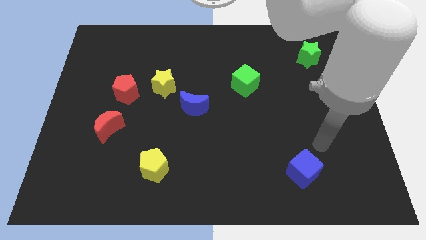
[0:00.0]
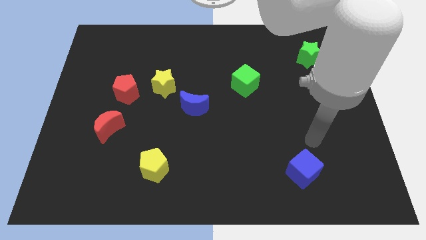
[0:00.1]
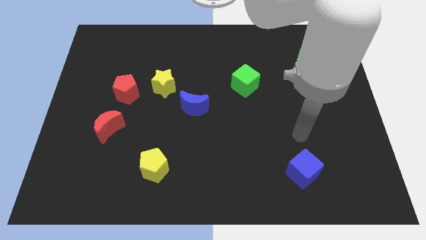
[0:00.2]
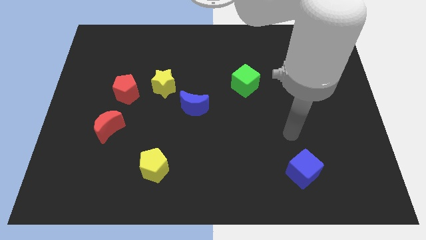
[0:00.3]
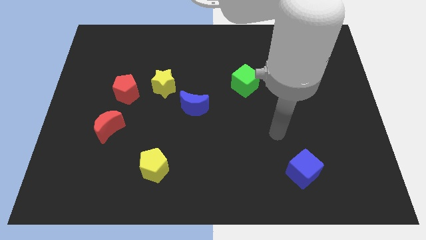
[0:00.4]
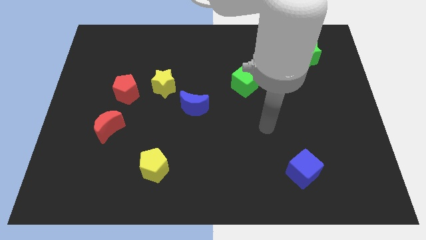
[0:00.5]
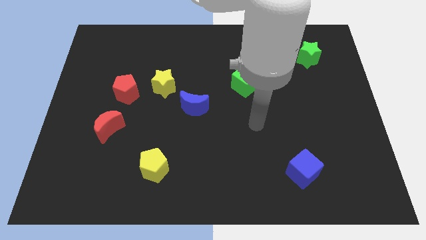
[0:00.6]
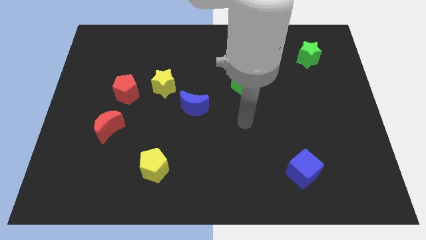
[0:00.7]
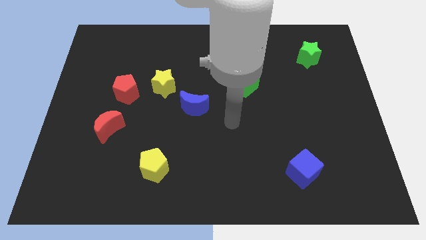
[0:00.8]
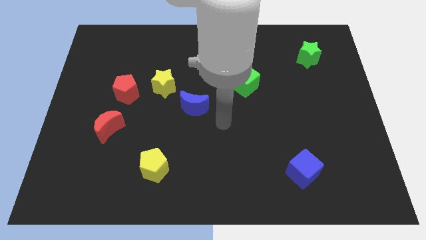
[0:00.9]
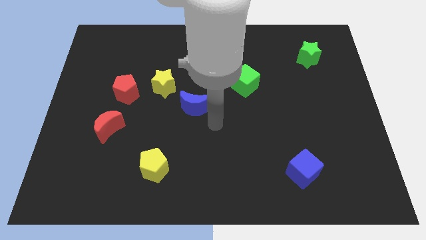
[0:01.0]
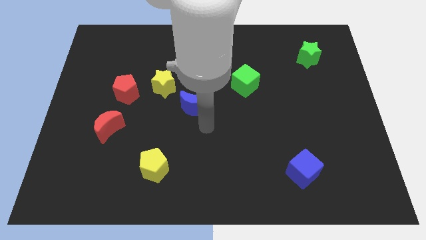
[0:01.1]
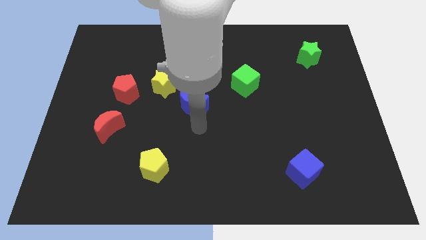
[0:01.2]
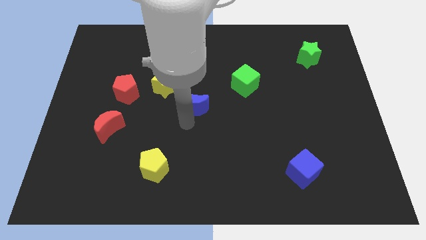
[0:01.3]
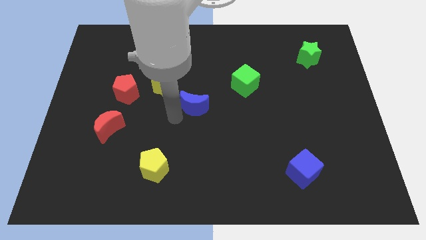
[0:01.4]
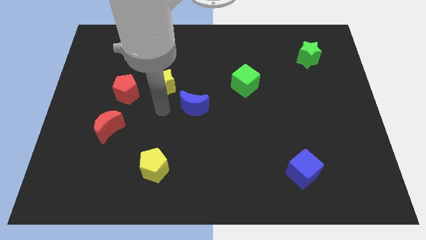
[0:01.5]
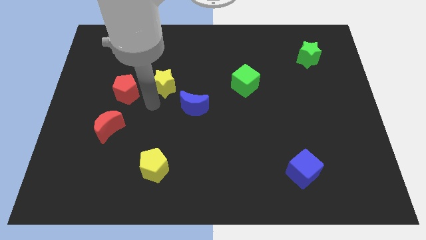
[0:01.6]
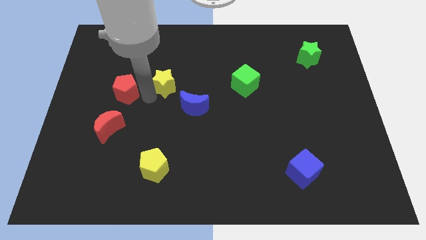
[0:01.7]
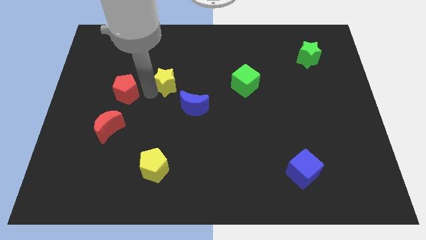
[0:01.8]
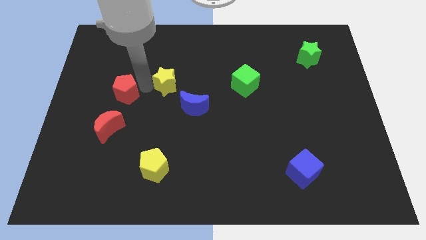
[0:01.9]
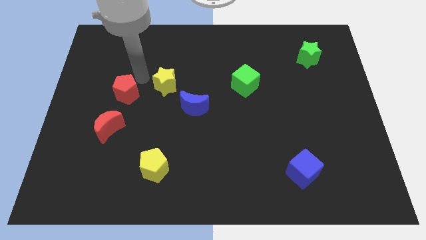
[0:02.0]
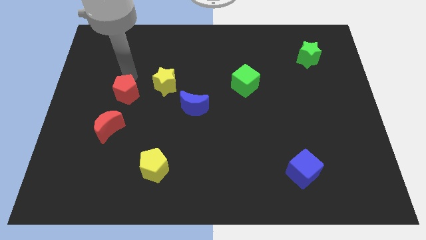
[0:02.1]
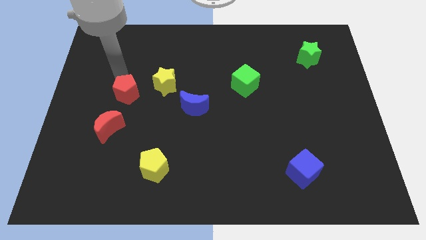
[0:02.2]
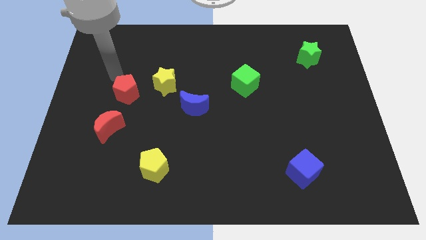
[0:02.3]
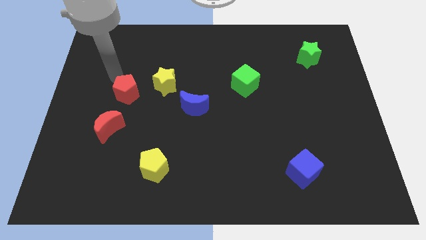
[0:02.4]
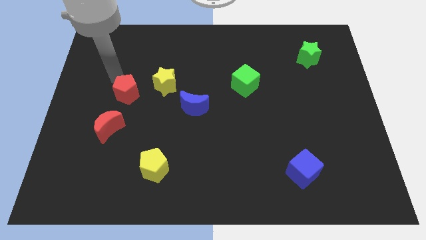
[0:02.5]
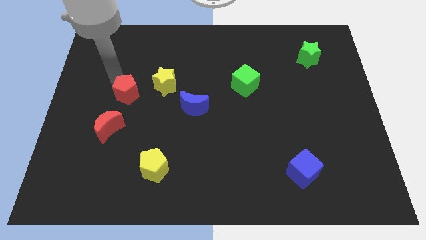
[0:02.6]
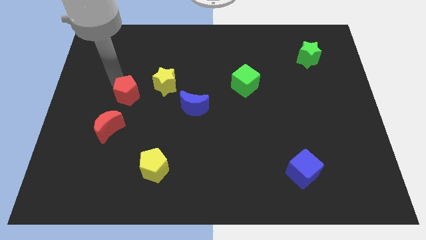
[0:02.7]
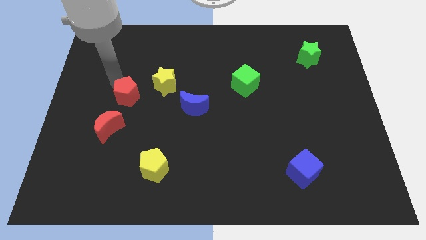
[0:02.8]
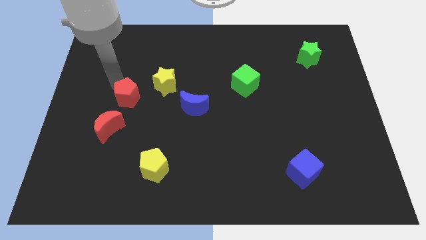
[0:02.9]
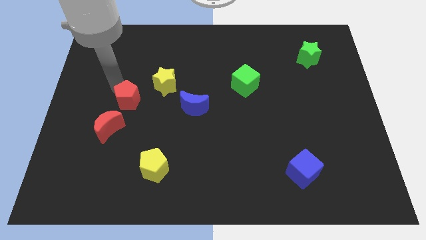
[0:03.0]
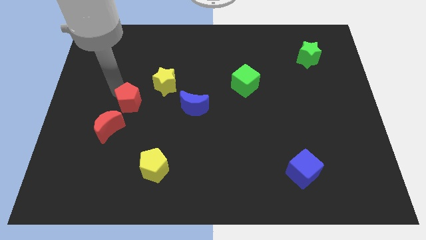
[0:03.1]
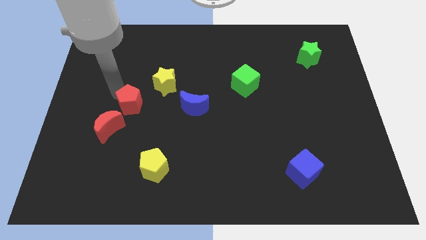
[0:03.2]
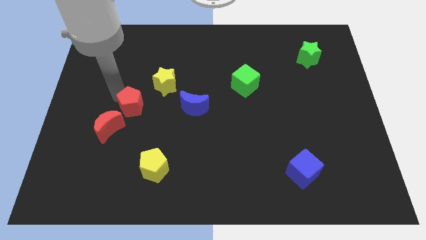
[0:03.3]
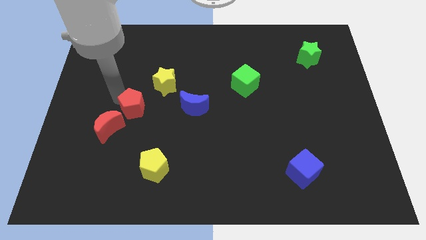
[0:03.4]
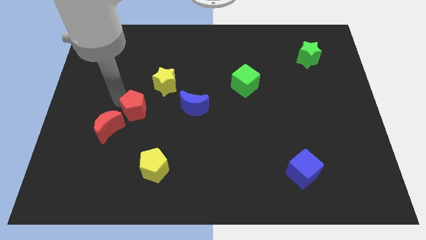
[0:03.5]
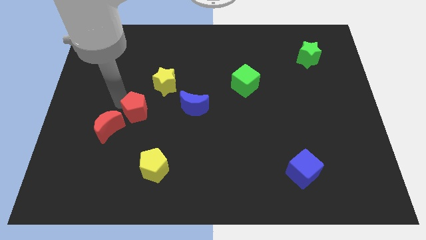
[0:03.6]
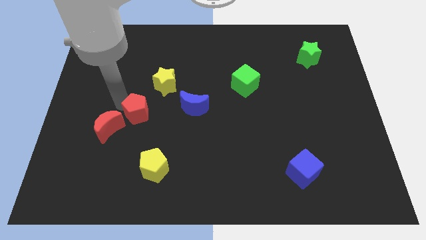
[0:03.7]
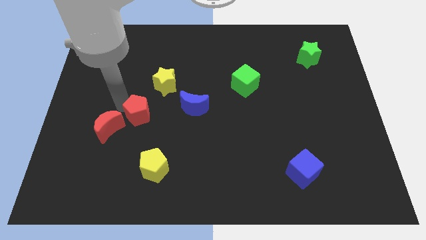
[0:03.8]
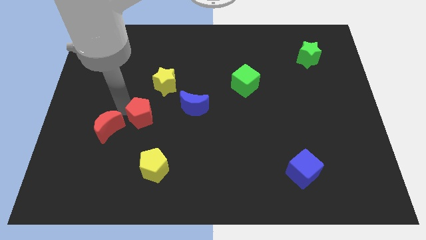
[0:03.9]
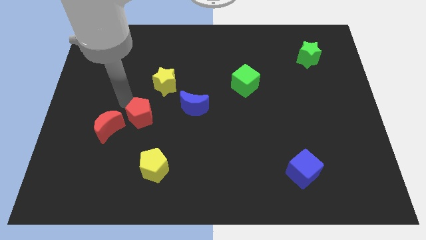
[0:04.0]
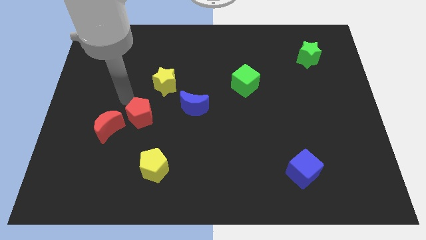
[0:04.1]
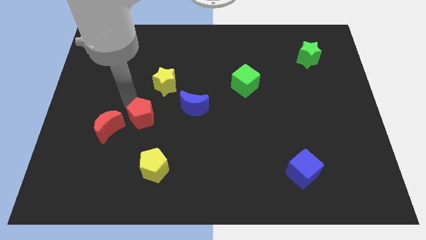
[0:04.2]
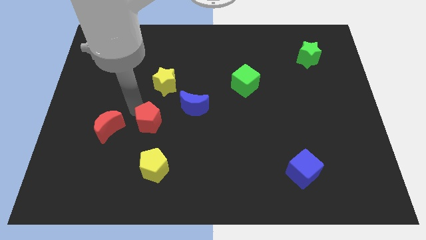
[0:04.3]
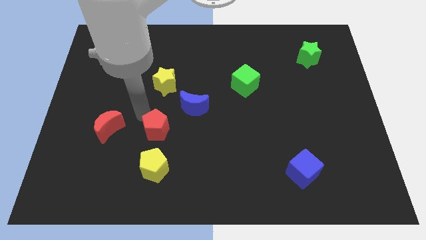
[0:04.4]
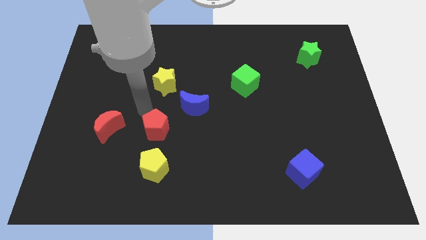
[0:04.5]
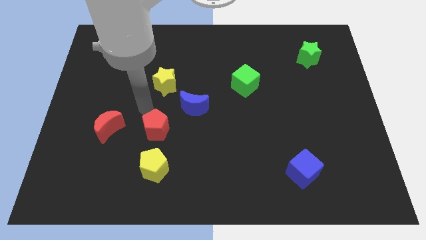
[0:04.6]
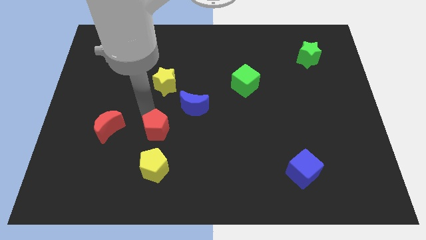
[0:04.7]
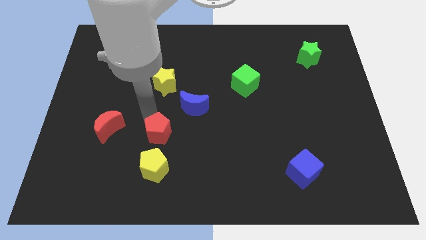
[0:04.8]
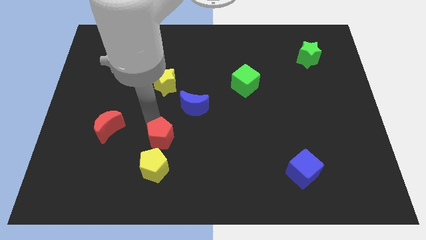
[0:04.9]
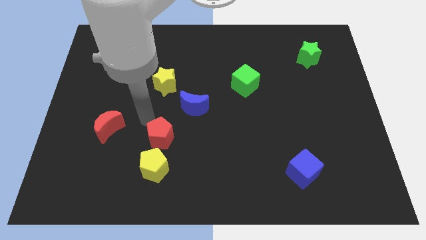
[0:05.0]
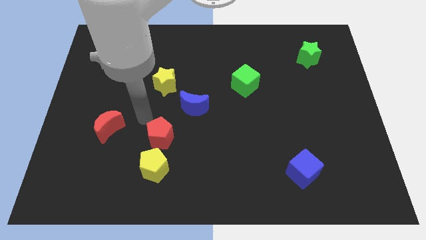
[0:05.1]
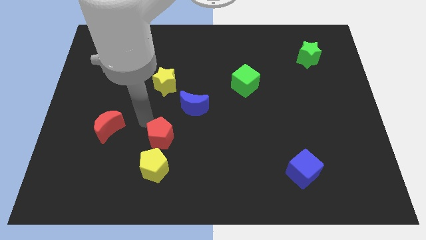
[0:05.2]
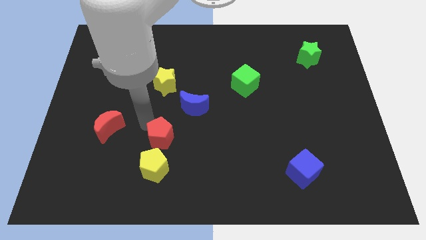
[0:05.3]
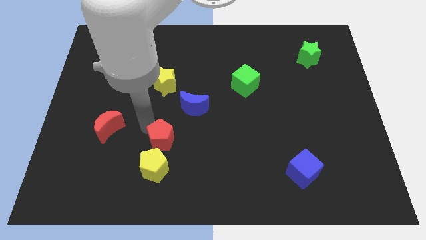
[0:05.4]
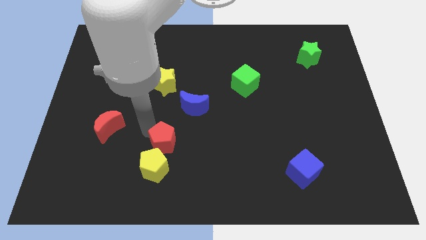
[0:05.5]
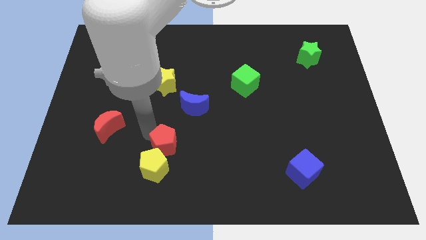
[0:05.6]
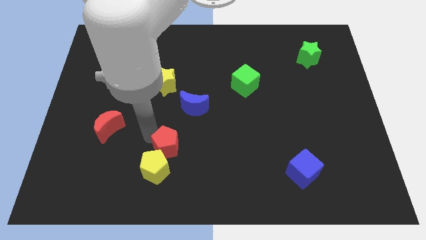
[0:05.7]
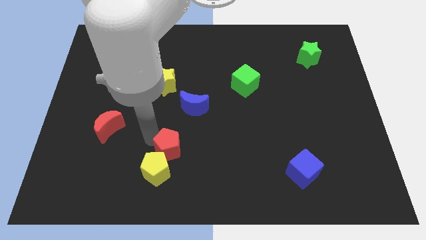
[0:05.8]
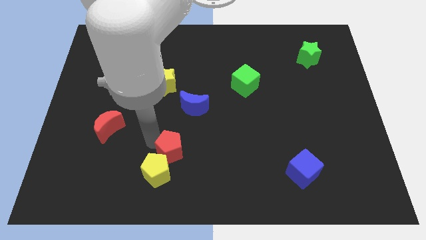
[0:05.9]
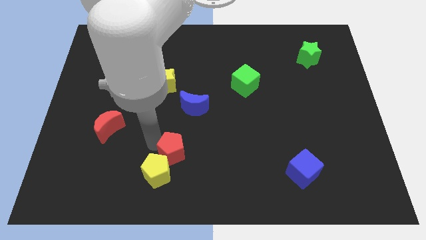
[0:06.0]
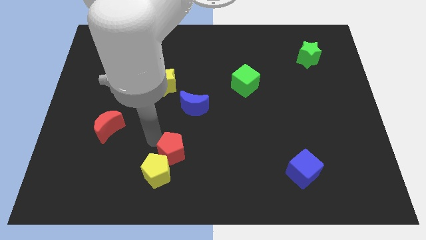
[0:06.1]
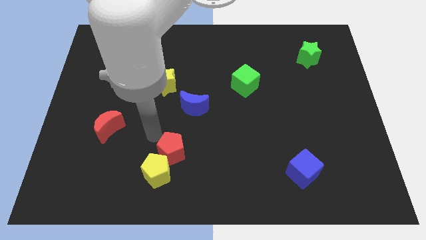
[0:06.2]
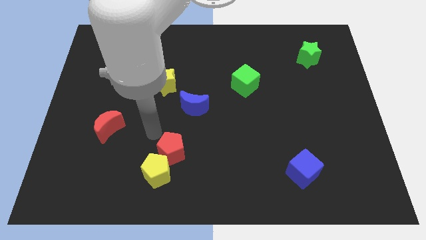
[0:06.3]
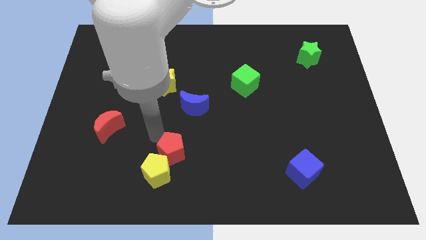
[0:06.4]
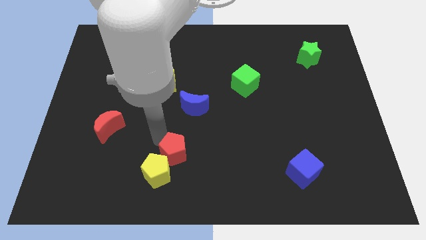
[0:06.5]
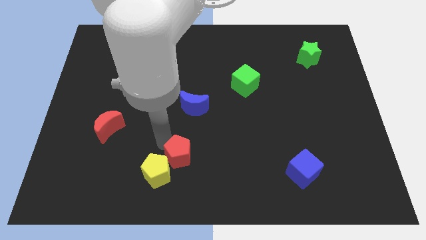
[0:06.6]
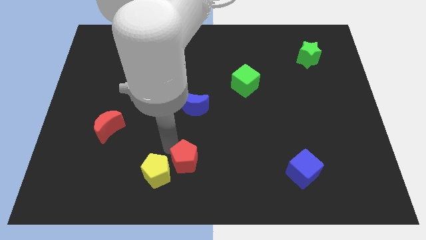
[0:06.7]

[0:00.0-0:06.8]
push the red pentagon to the bottom
